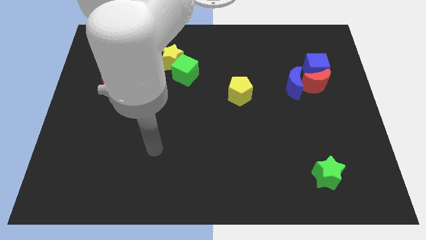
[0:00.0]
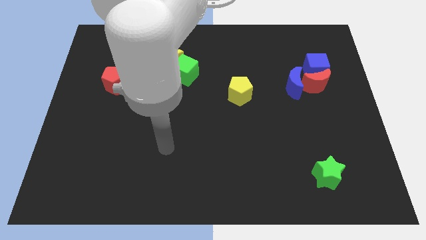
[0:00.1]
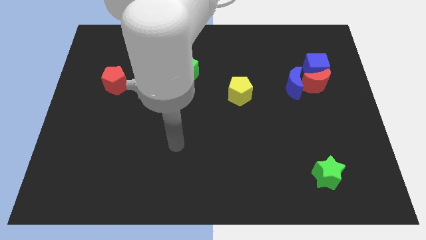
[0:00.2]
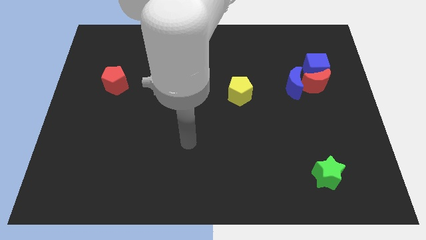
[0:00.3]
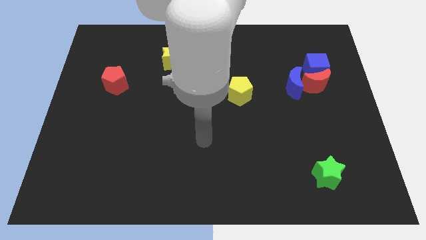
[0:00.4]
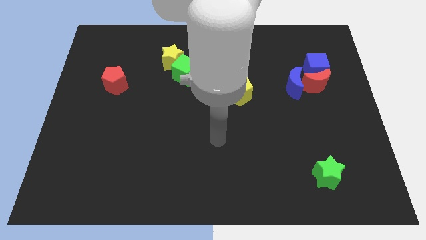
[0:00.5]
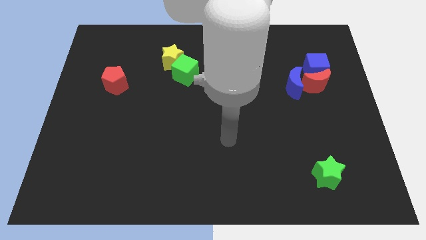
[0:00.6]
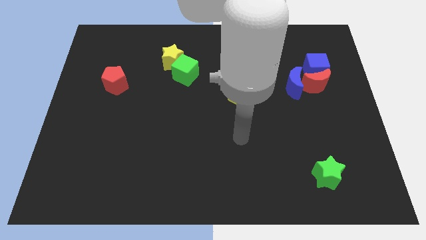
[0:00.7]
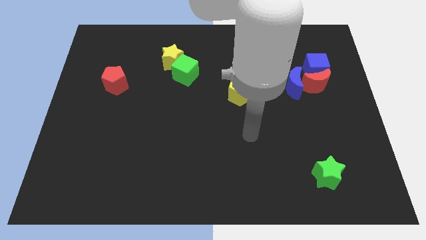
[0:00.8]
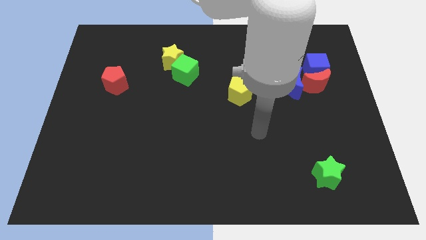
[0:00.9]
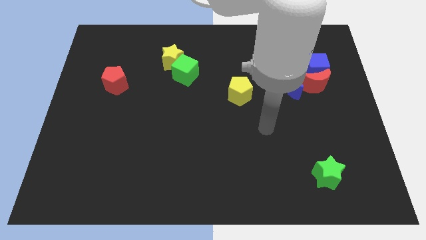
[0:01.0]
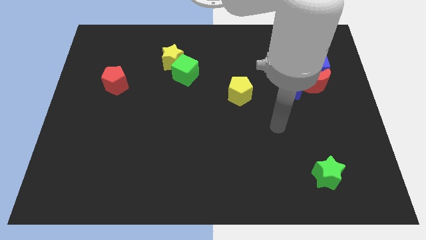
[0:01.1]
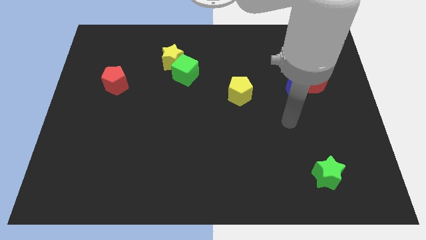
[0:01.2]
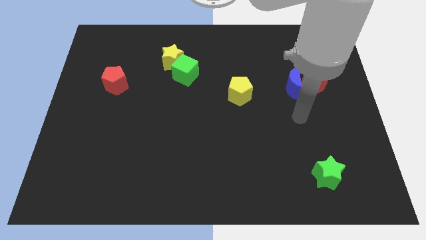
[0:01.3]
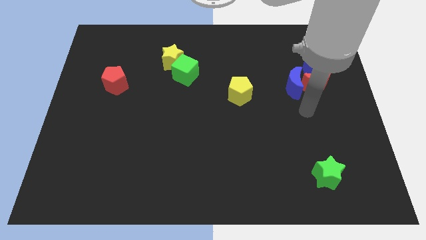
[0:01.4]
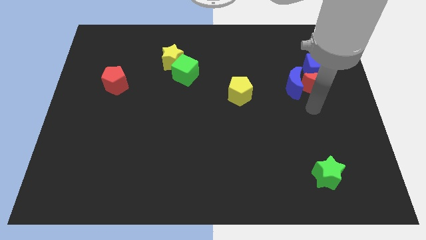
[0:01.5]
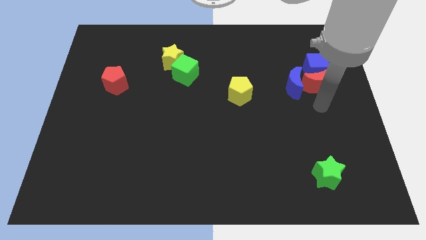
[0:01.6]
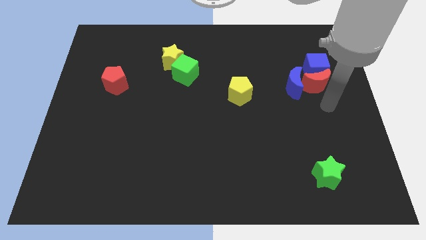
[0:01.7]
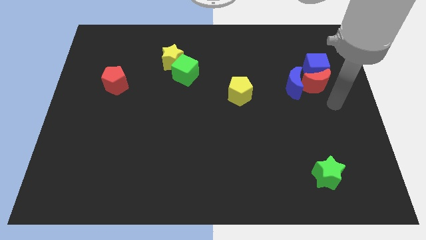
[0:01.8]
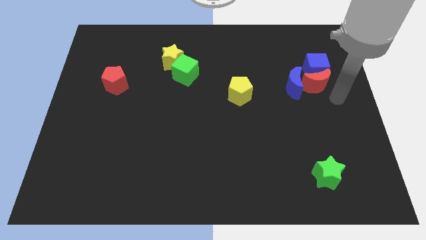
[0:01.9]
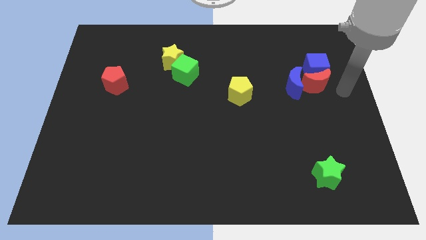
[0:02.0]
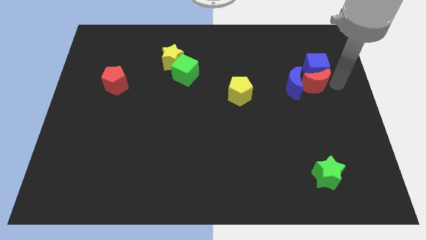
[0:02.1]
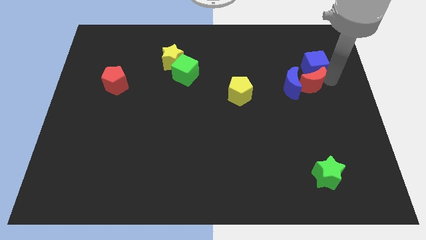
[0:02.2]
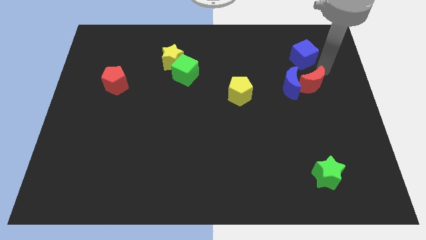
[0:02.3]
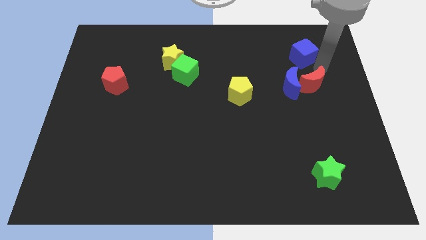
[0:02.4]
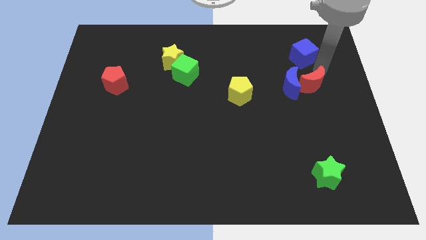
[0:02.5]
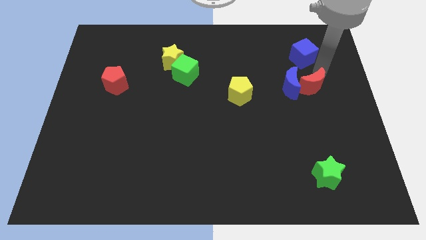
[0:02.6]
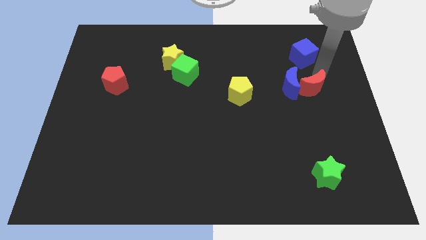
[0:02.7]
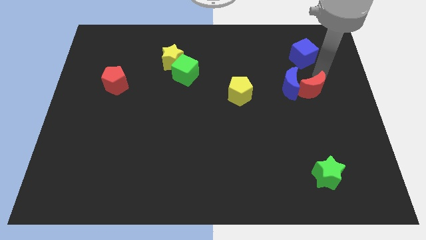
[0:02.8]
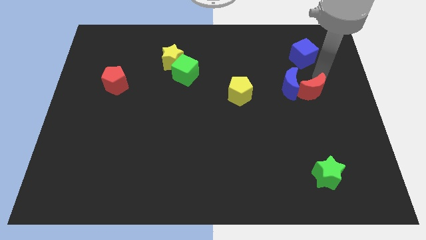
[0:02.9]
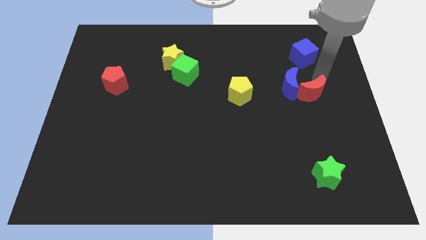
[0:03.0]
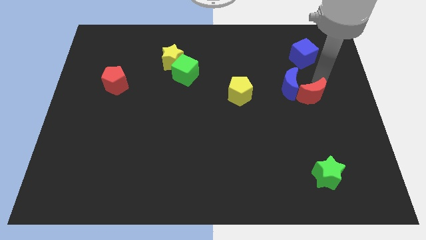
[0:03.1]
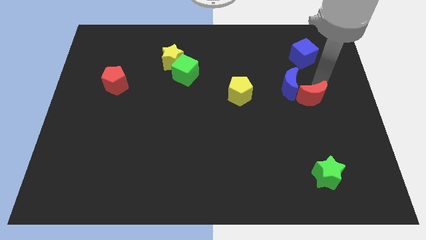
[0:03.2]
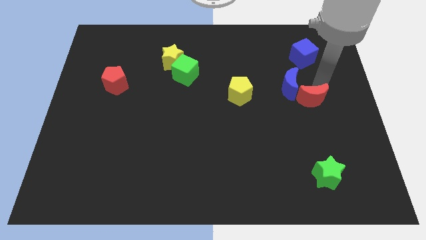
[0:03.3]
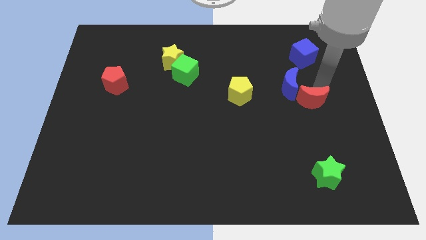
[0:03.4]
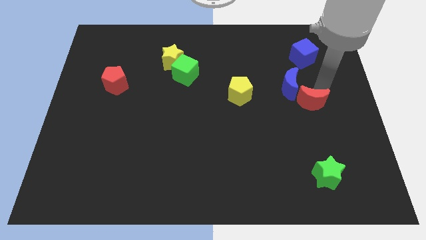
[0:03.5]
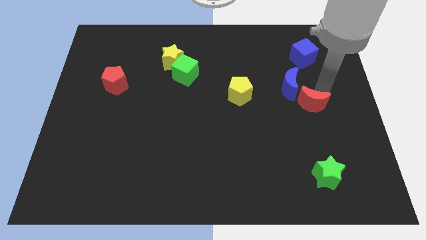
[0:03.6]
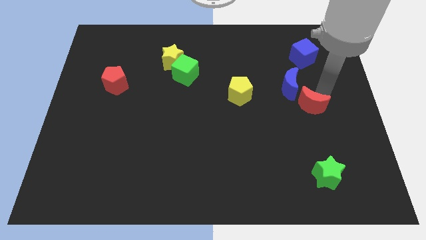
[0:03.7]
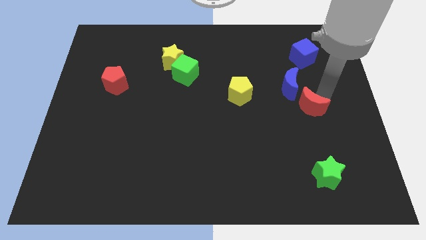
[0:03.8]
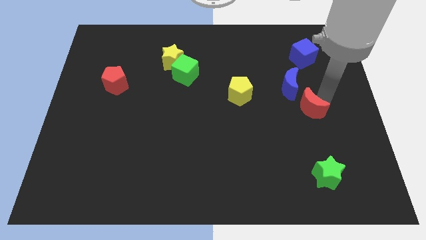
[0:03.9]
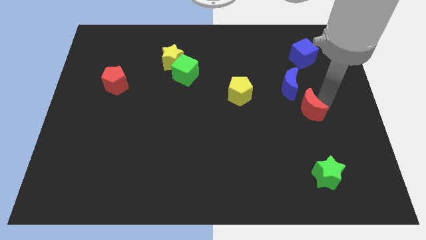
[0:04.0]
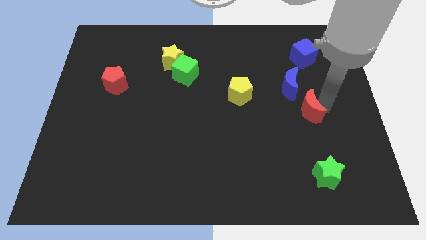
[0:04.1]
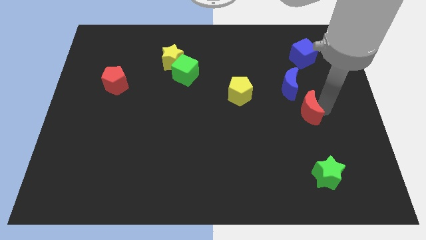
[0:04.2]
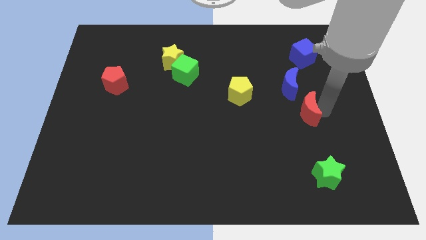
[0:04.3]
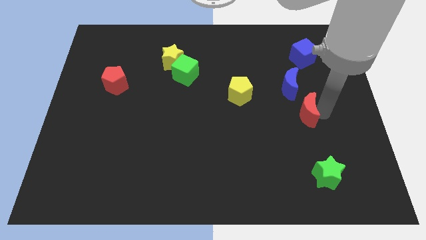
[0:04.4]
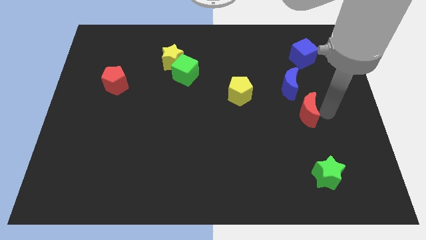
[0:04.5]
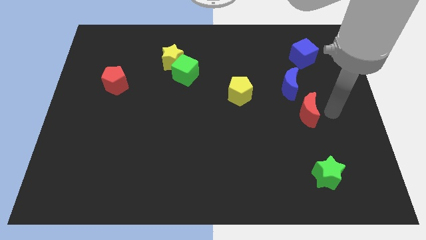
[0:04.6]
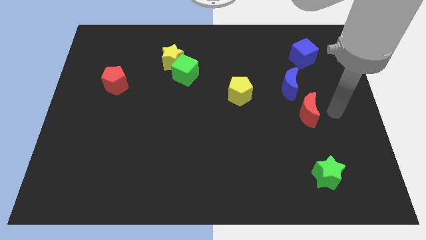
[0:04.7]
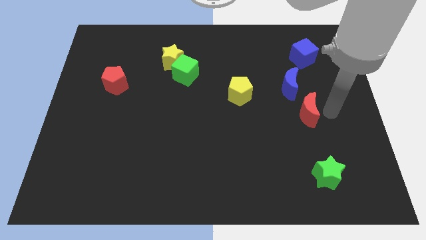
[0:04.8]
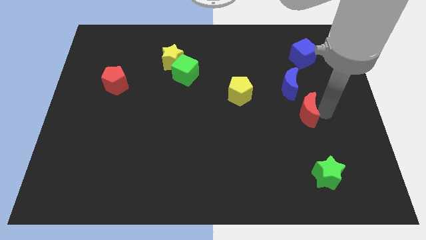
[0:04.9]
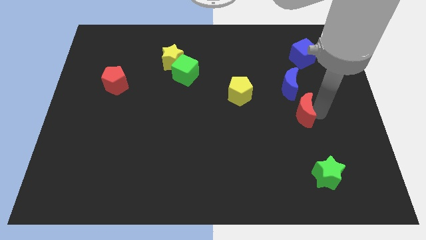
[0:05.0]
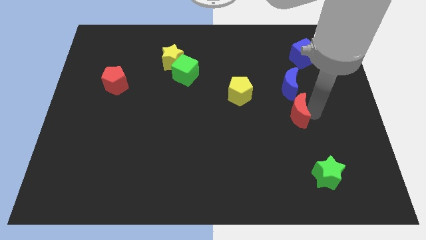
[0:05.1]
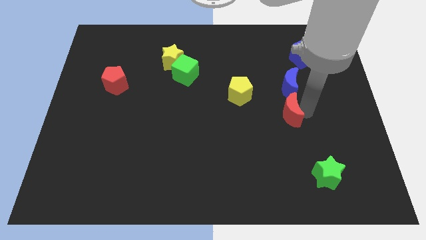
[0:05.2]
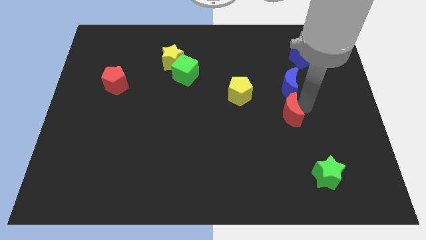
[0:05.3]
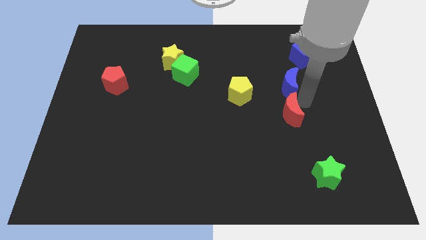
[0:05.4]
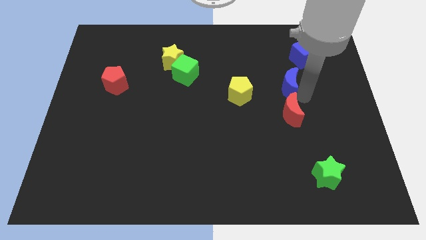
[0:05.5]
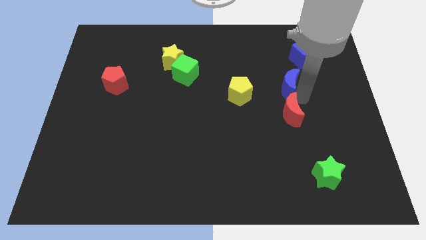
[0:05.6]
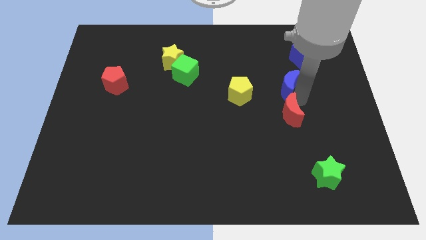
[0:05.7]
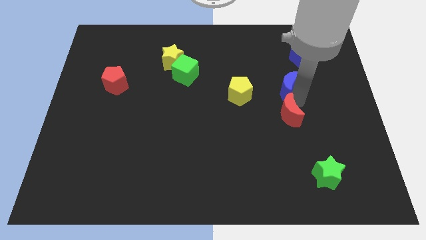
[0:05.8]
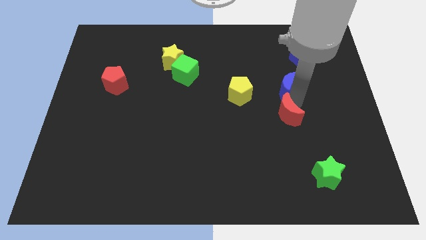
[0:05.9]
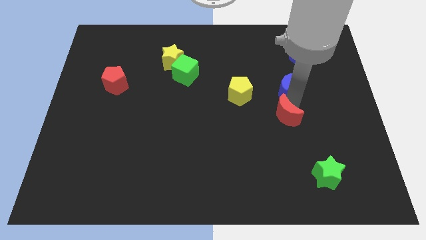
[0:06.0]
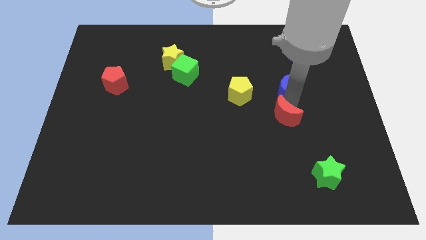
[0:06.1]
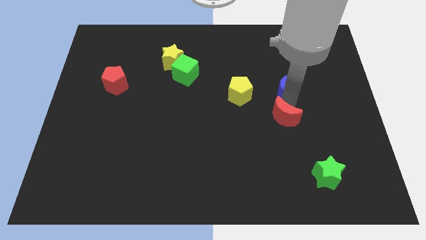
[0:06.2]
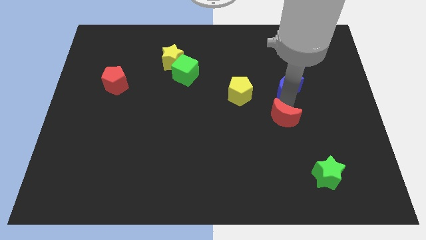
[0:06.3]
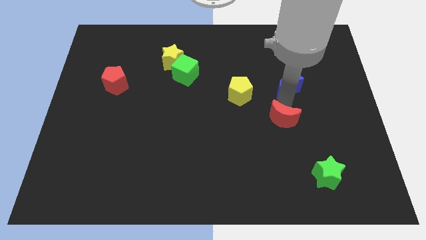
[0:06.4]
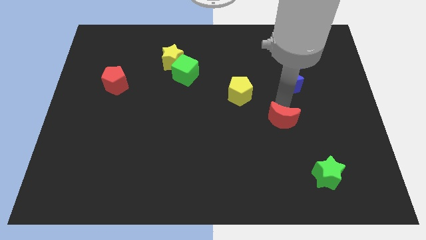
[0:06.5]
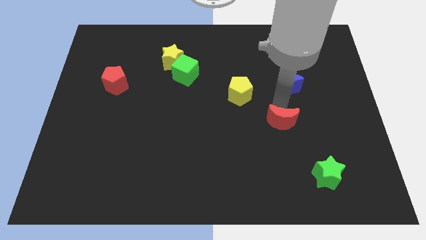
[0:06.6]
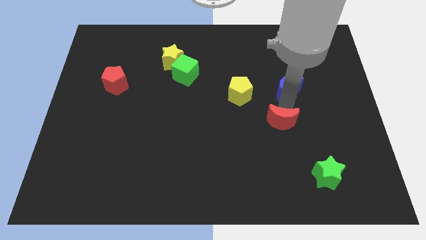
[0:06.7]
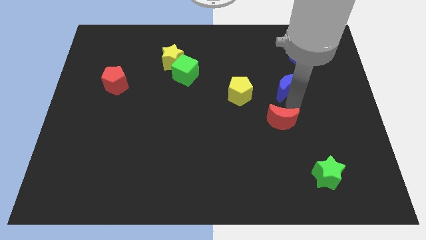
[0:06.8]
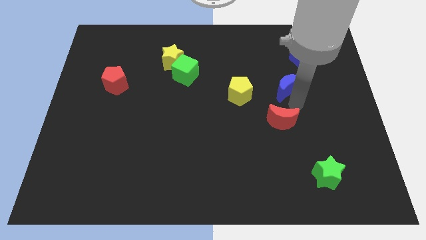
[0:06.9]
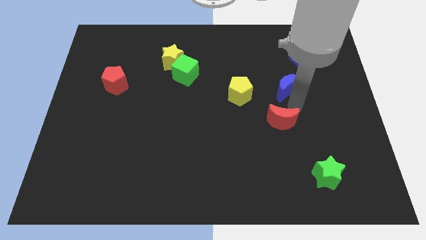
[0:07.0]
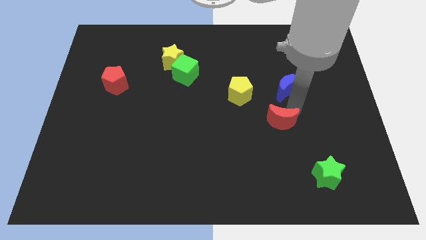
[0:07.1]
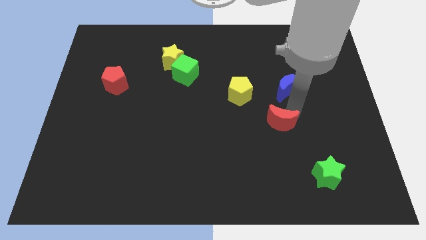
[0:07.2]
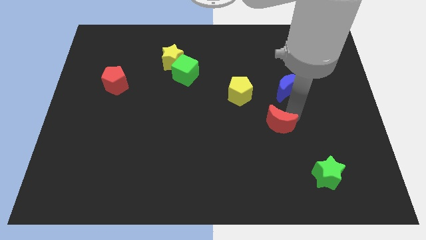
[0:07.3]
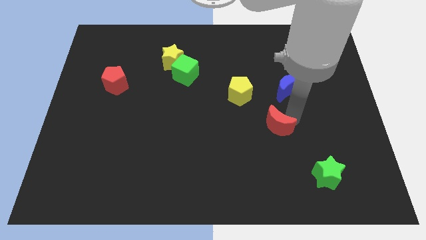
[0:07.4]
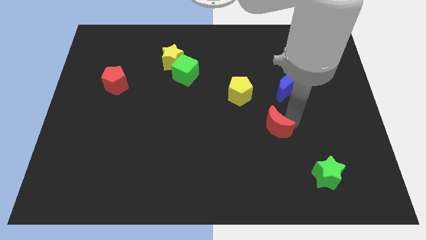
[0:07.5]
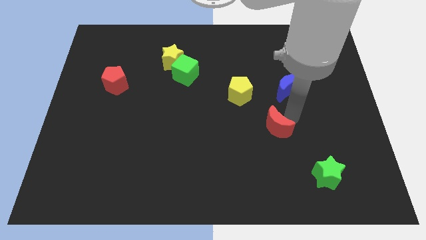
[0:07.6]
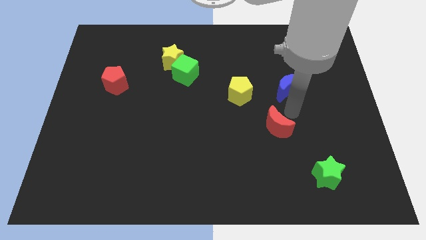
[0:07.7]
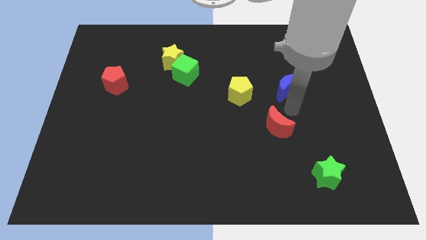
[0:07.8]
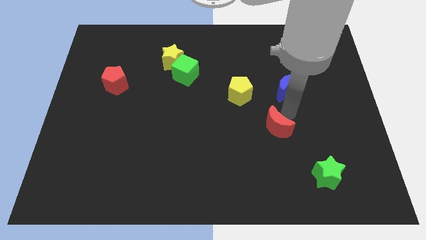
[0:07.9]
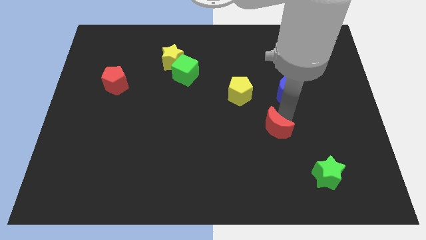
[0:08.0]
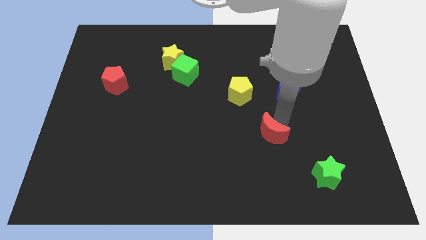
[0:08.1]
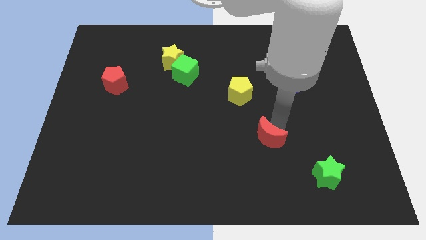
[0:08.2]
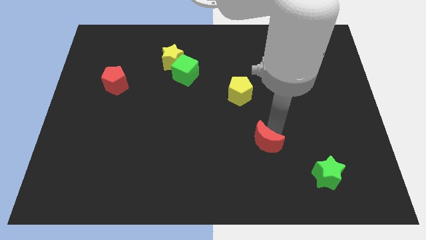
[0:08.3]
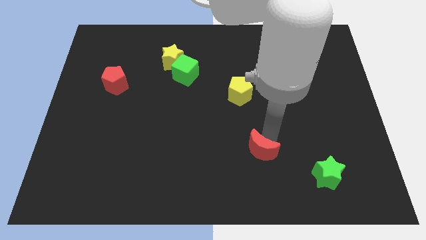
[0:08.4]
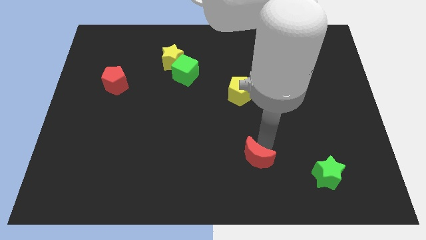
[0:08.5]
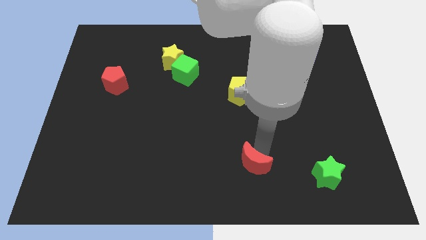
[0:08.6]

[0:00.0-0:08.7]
put the red moon to the bottom
